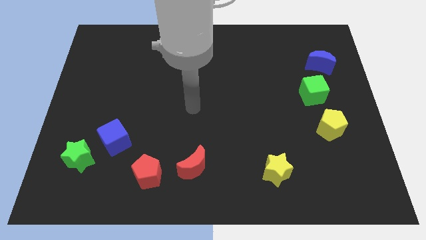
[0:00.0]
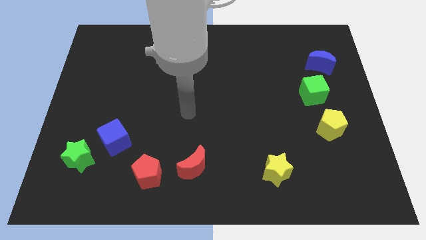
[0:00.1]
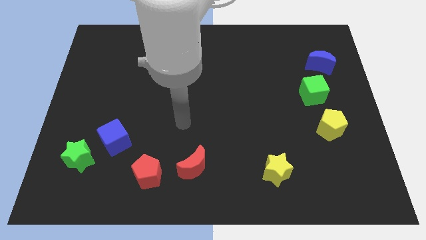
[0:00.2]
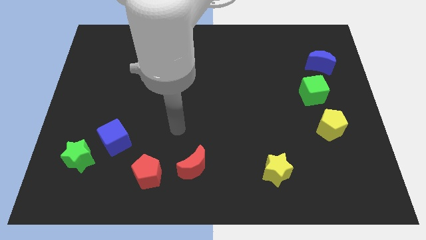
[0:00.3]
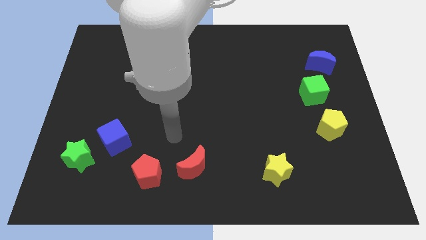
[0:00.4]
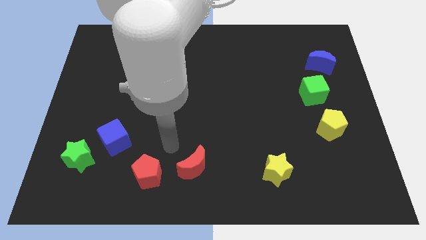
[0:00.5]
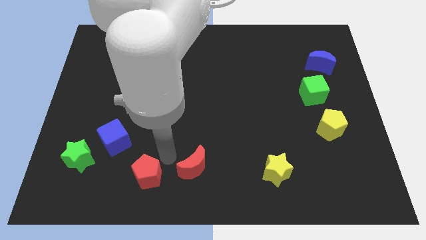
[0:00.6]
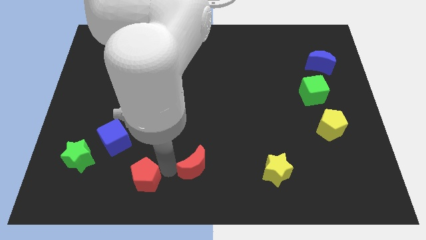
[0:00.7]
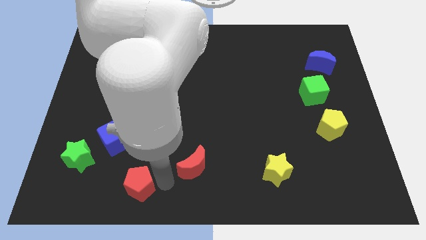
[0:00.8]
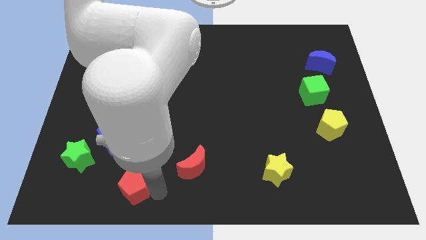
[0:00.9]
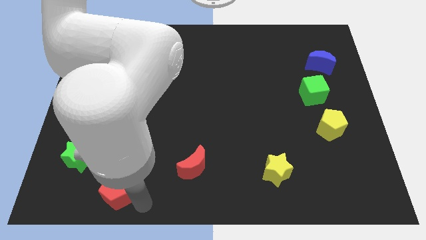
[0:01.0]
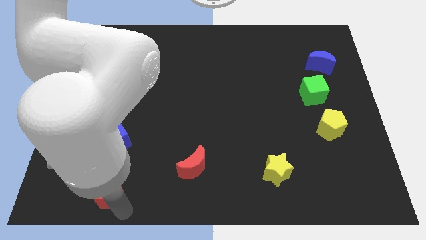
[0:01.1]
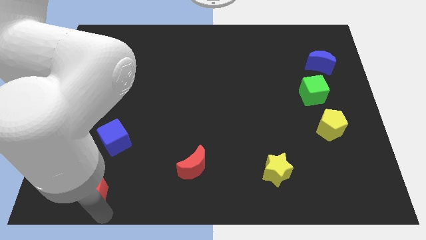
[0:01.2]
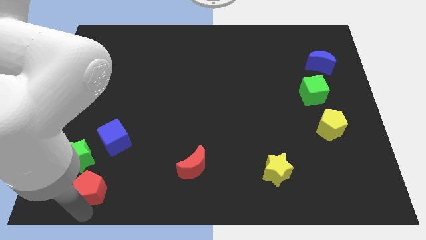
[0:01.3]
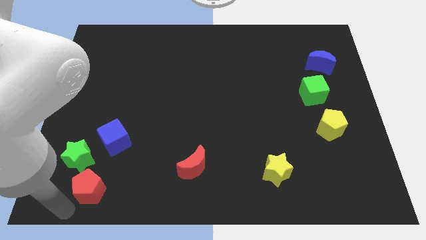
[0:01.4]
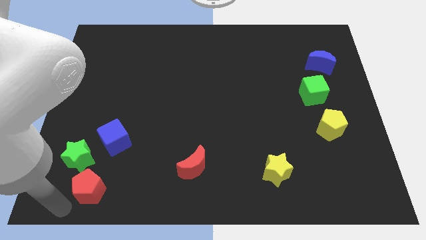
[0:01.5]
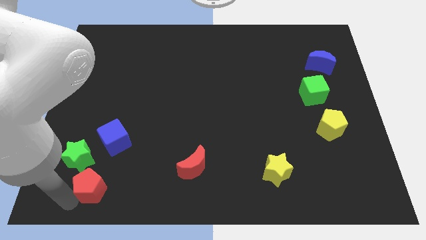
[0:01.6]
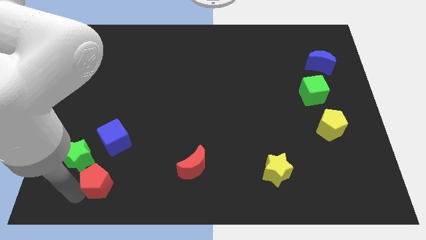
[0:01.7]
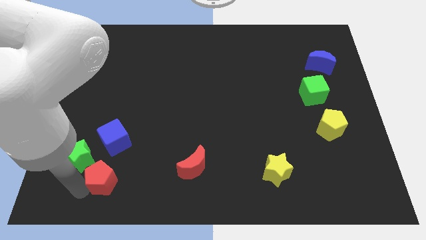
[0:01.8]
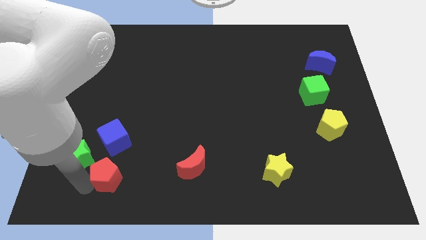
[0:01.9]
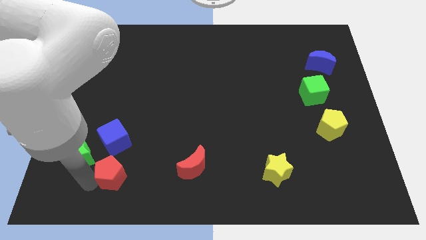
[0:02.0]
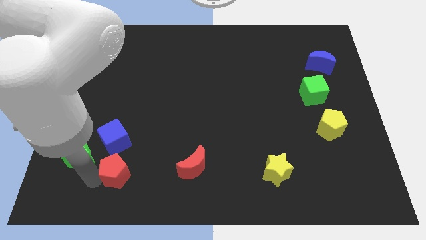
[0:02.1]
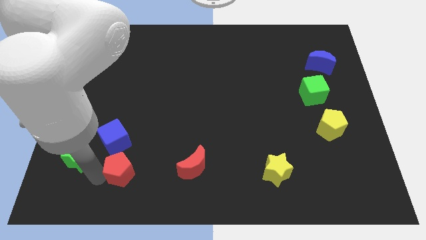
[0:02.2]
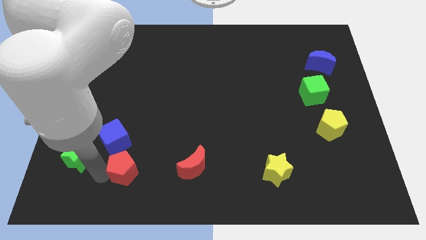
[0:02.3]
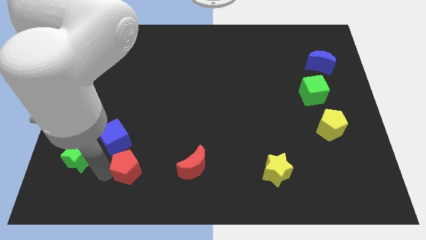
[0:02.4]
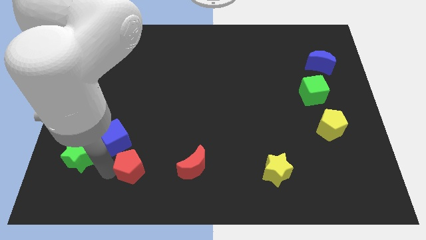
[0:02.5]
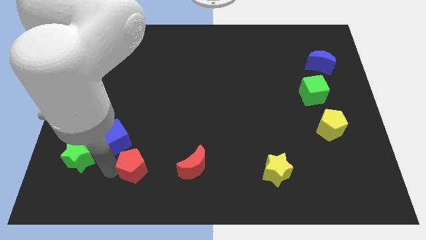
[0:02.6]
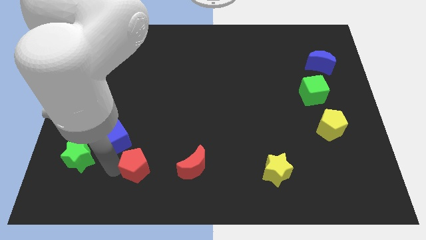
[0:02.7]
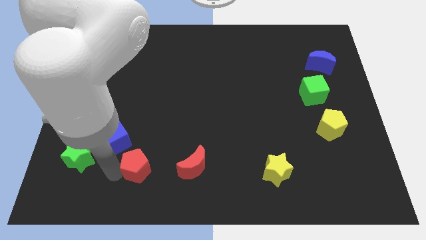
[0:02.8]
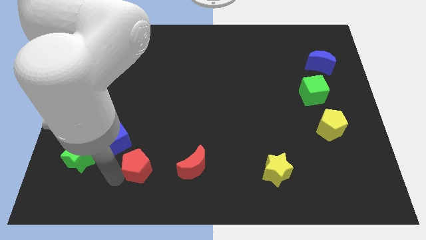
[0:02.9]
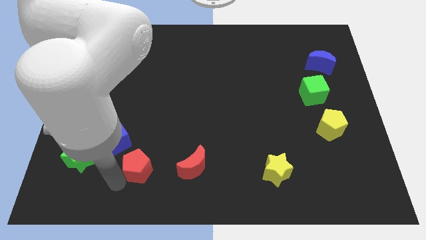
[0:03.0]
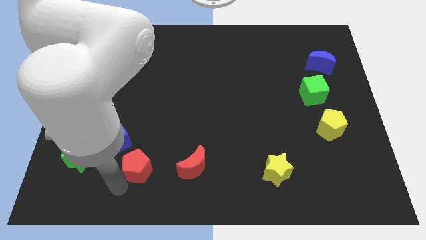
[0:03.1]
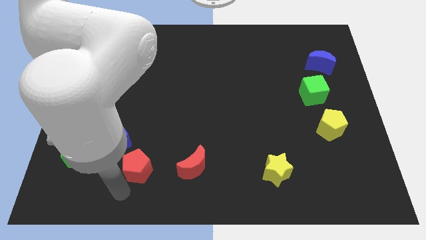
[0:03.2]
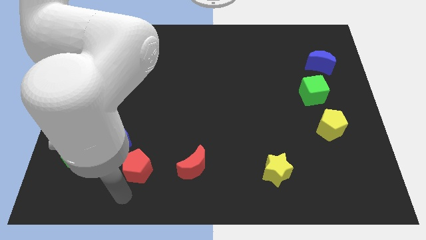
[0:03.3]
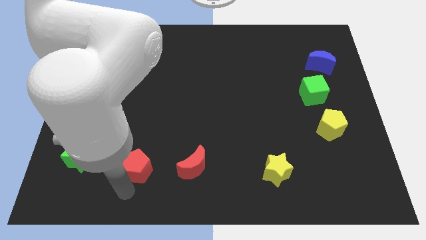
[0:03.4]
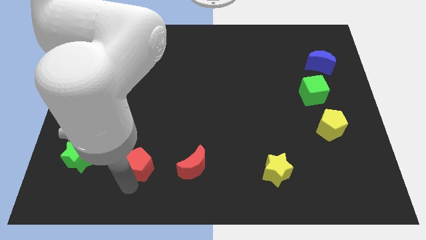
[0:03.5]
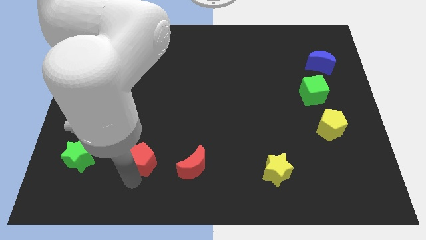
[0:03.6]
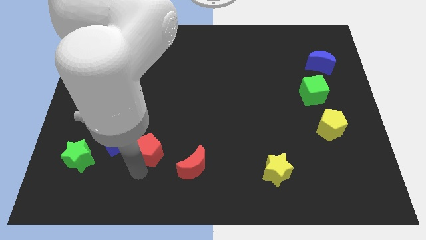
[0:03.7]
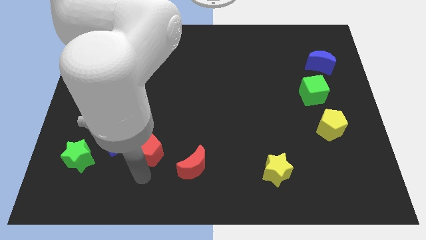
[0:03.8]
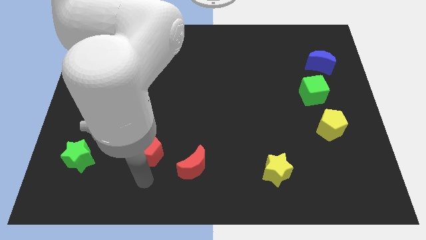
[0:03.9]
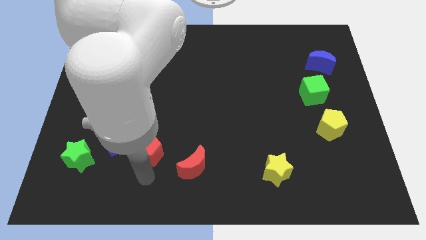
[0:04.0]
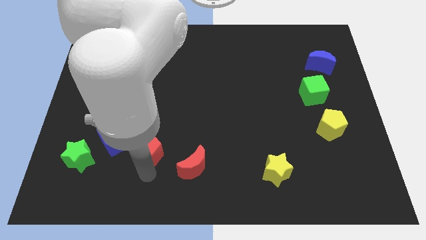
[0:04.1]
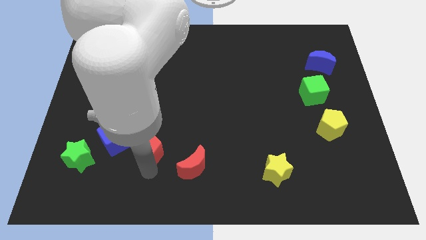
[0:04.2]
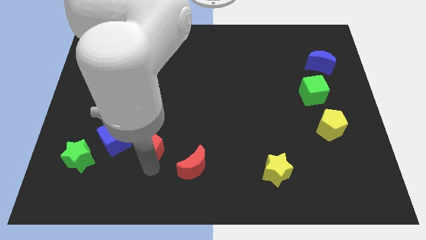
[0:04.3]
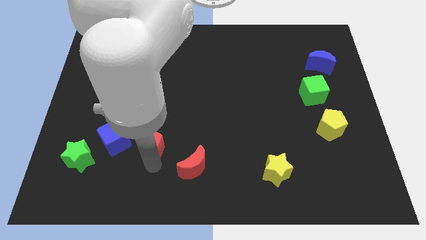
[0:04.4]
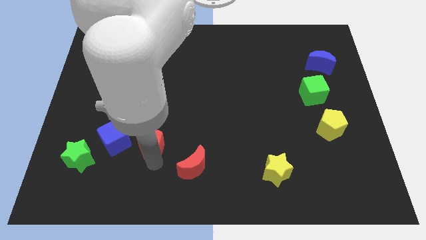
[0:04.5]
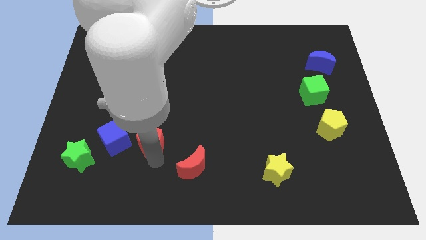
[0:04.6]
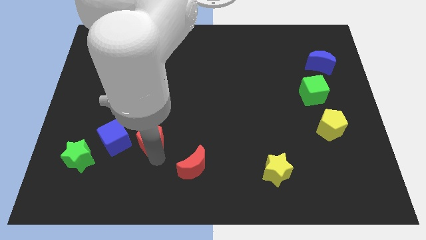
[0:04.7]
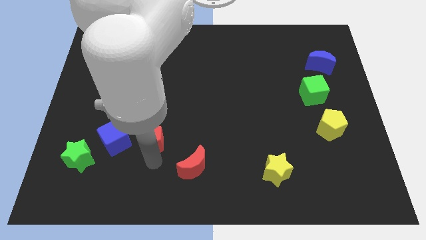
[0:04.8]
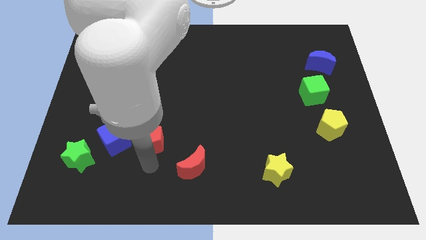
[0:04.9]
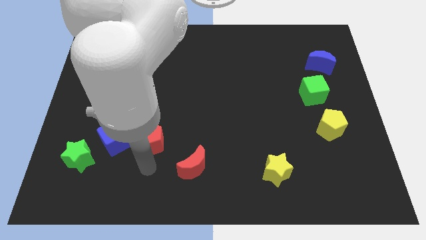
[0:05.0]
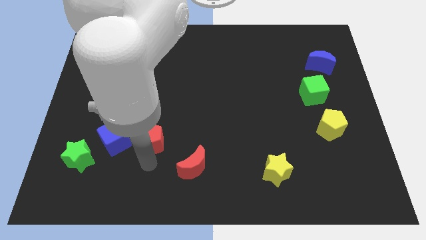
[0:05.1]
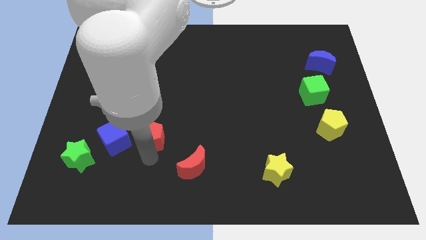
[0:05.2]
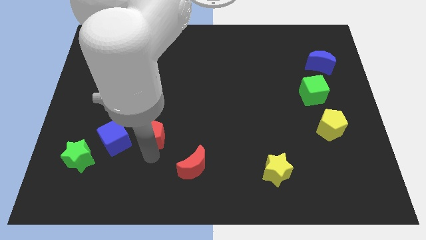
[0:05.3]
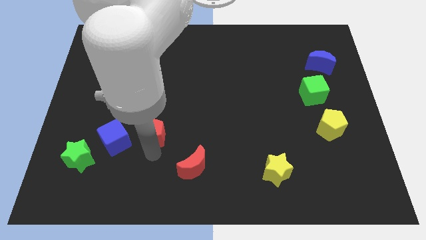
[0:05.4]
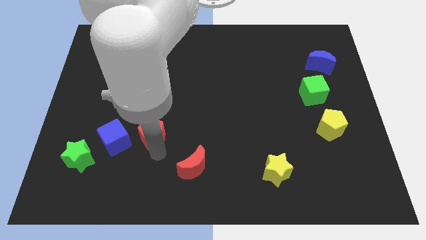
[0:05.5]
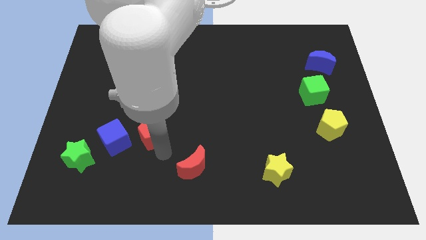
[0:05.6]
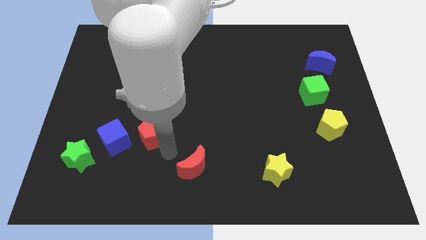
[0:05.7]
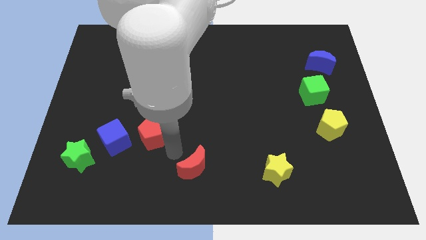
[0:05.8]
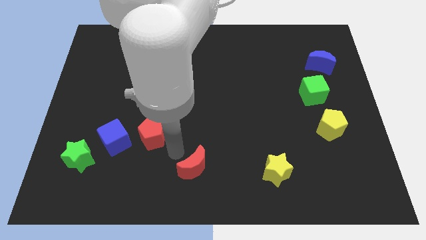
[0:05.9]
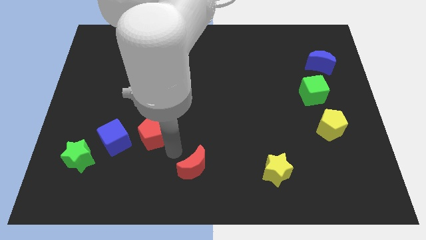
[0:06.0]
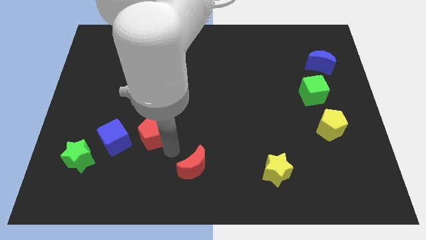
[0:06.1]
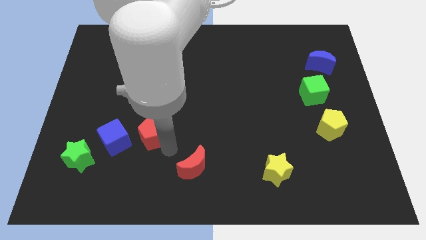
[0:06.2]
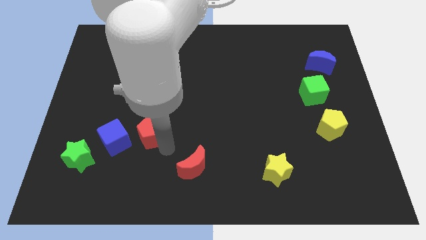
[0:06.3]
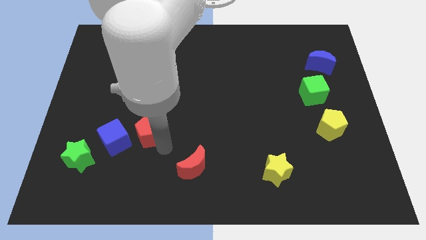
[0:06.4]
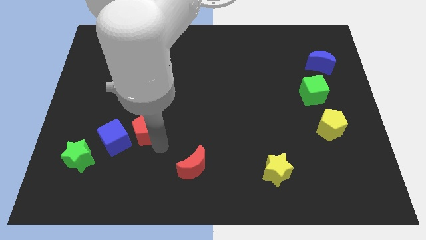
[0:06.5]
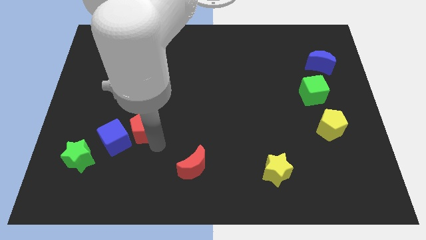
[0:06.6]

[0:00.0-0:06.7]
push the red pentagon up and left diagonally somewhat

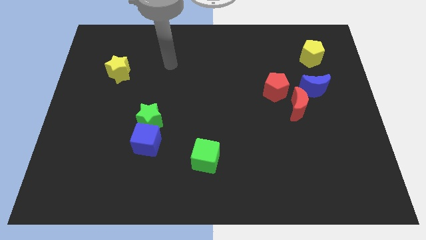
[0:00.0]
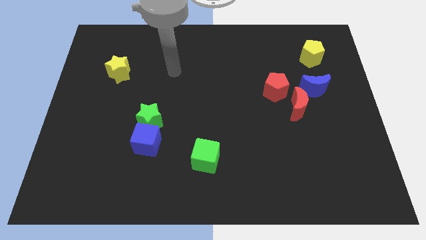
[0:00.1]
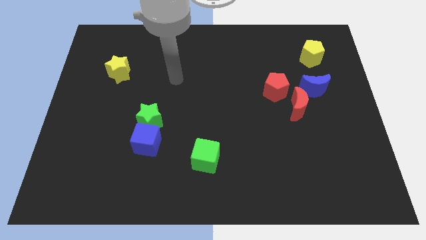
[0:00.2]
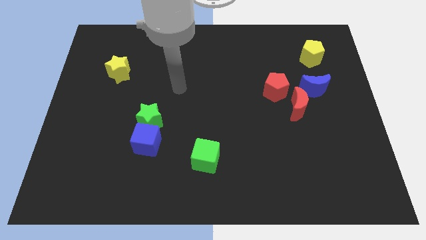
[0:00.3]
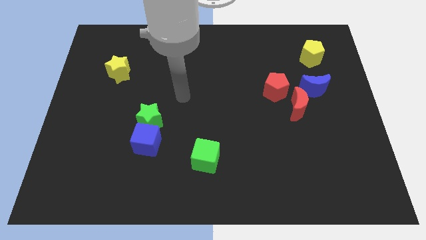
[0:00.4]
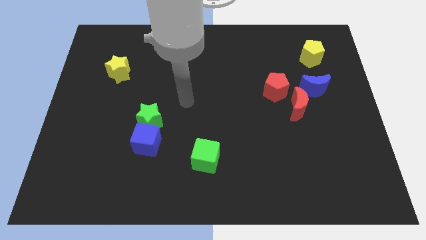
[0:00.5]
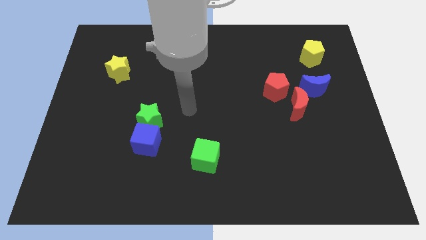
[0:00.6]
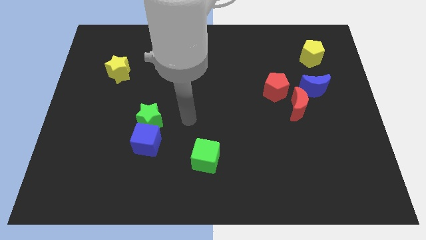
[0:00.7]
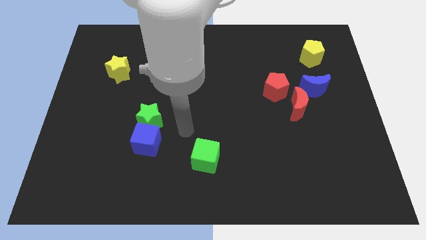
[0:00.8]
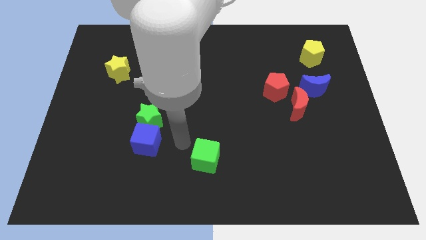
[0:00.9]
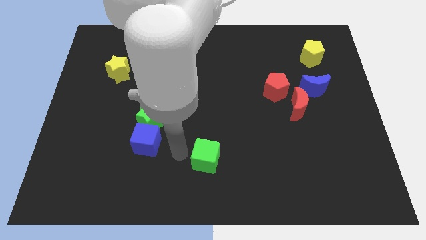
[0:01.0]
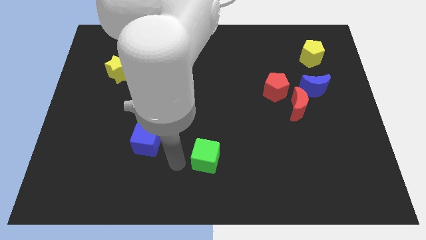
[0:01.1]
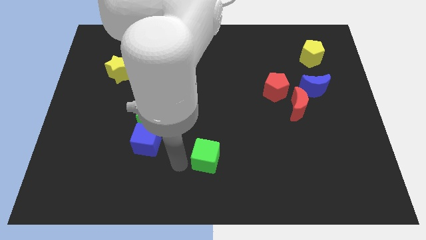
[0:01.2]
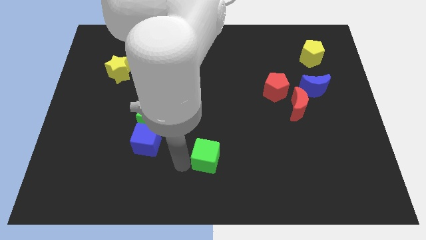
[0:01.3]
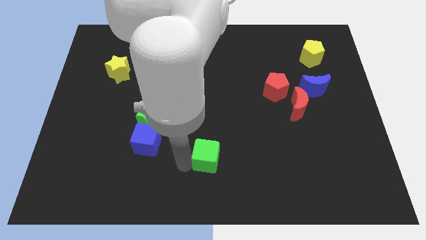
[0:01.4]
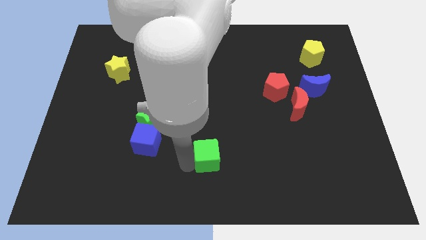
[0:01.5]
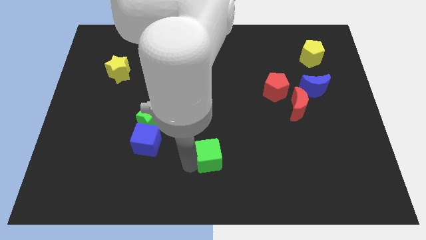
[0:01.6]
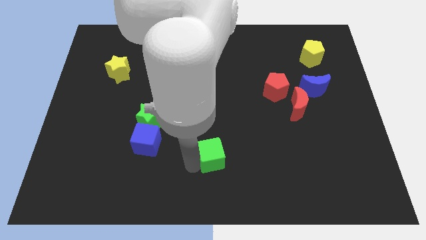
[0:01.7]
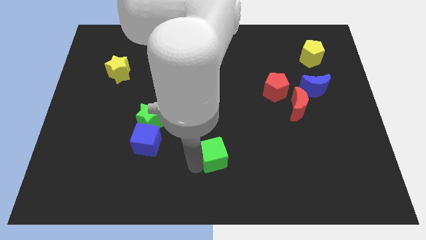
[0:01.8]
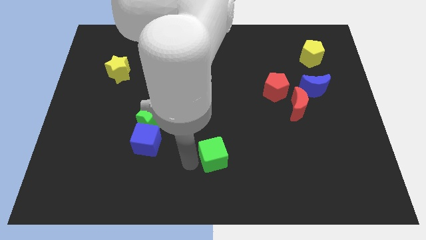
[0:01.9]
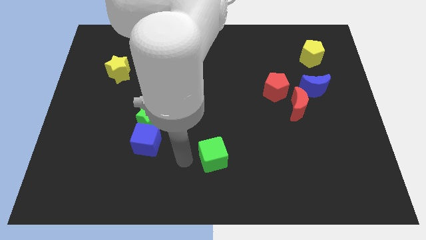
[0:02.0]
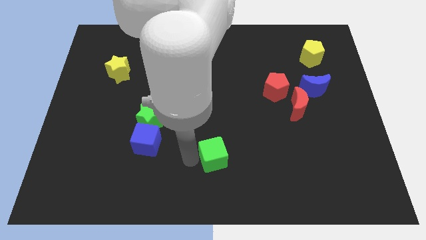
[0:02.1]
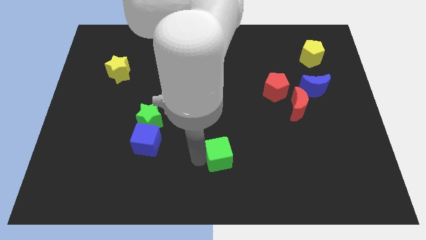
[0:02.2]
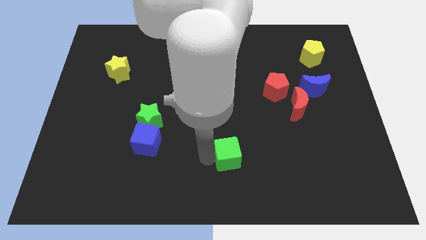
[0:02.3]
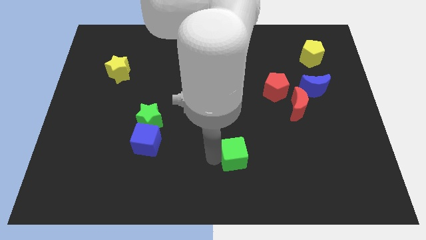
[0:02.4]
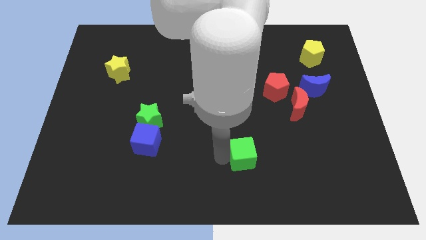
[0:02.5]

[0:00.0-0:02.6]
push the green cube right a little
